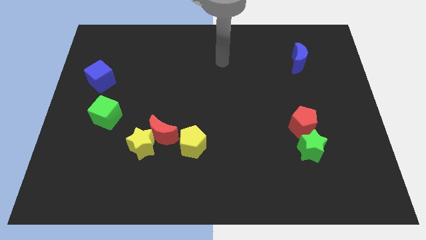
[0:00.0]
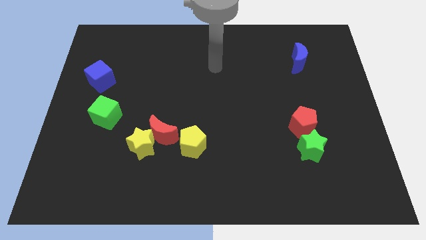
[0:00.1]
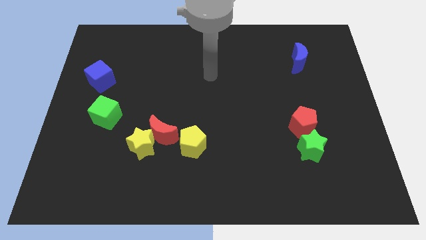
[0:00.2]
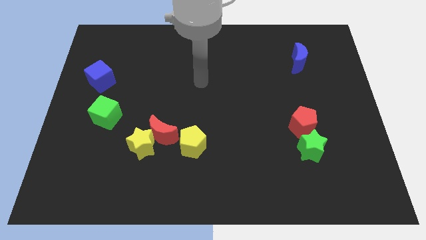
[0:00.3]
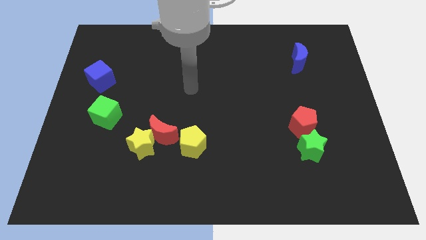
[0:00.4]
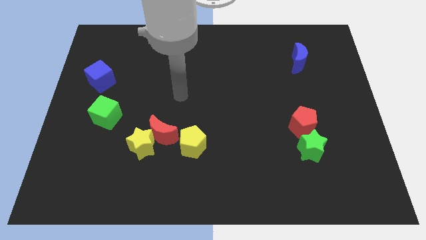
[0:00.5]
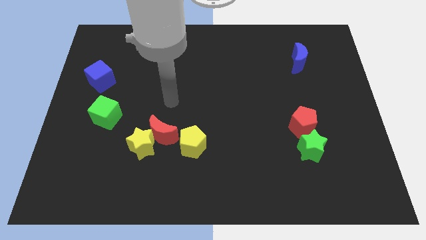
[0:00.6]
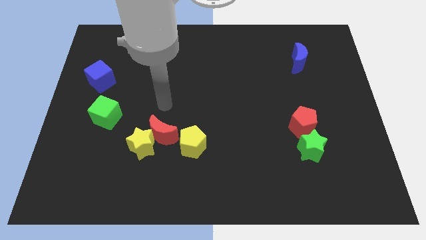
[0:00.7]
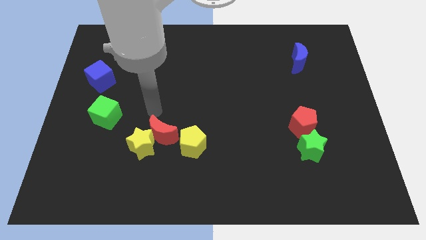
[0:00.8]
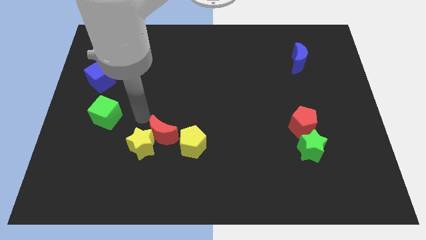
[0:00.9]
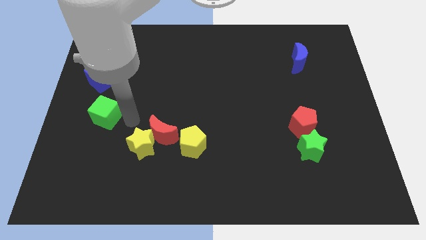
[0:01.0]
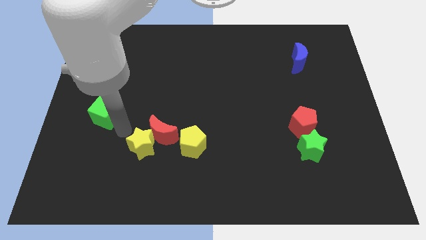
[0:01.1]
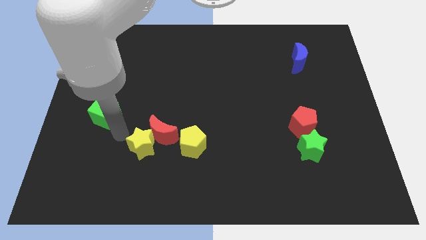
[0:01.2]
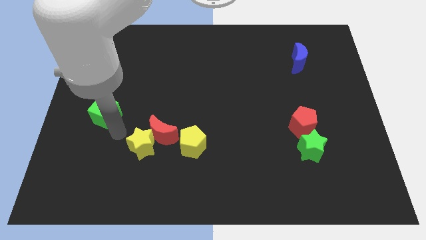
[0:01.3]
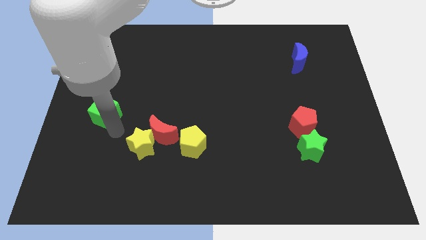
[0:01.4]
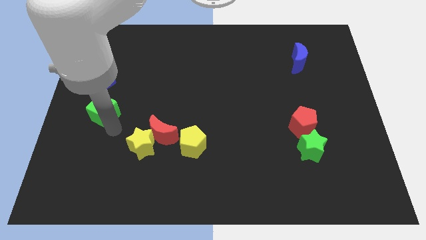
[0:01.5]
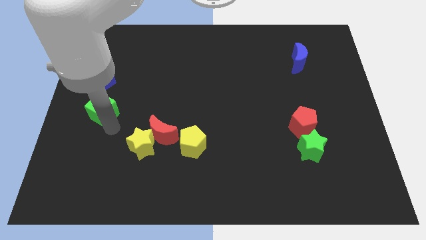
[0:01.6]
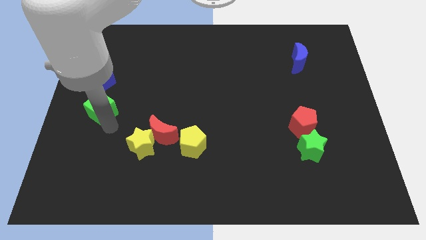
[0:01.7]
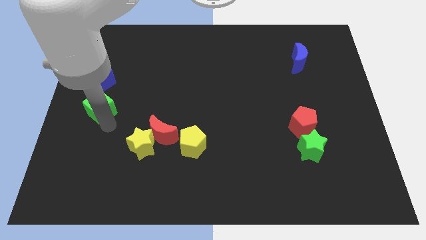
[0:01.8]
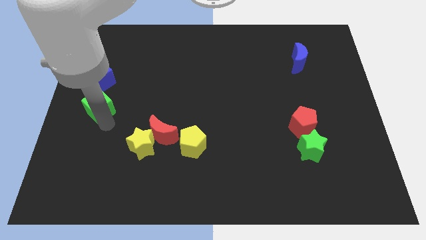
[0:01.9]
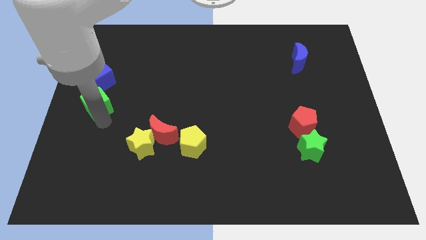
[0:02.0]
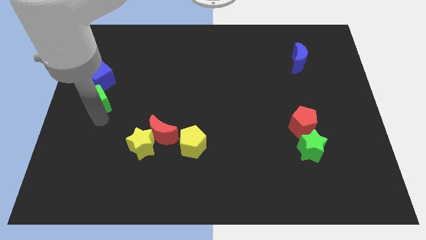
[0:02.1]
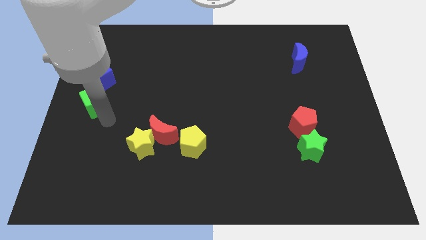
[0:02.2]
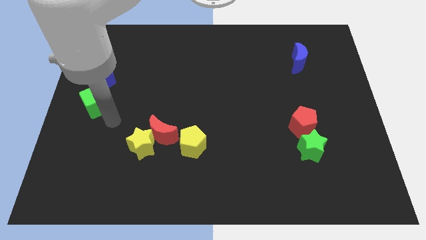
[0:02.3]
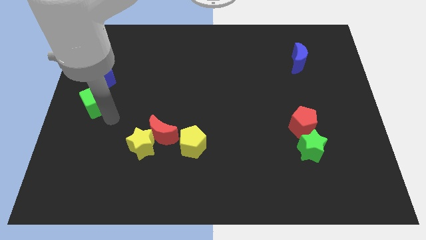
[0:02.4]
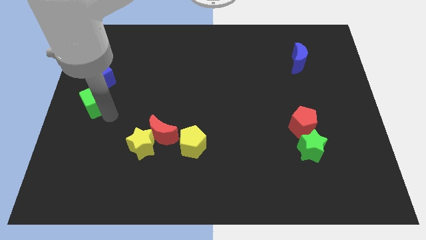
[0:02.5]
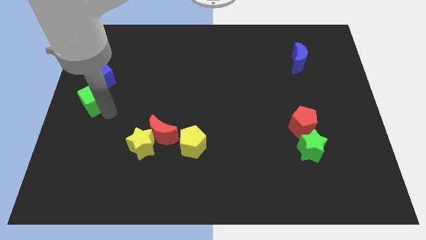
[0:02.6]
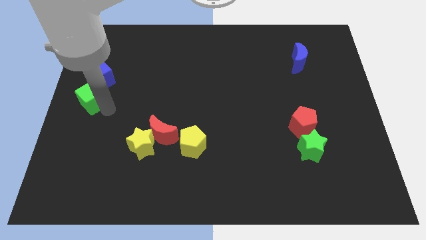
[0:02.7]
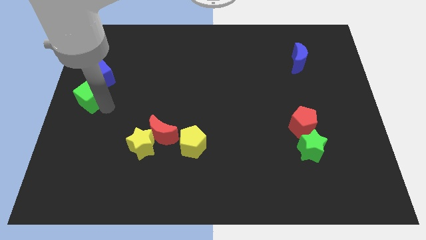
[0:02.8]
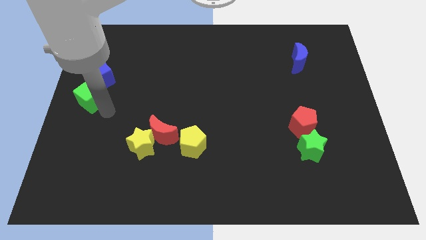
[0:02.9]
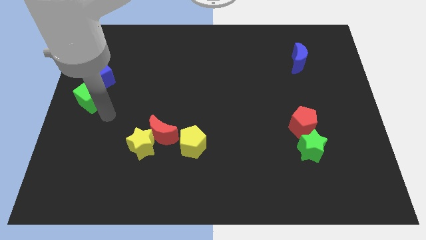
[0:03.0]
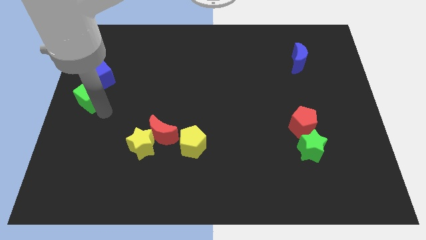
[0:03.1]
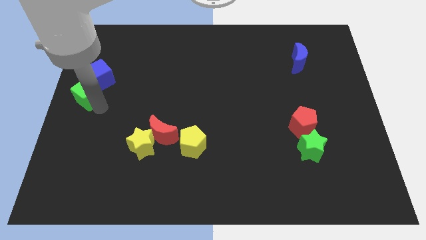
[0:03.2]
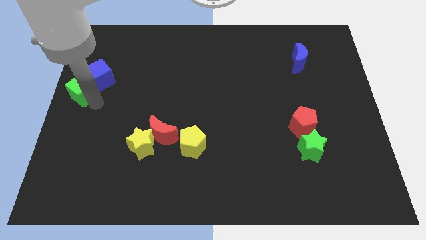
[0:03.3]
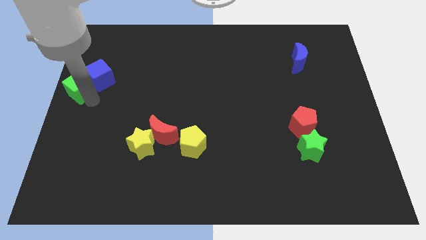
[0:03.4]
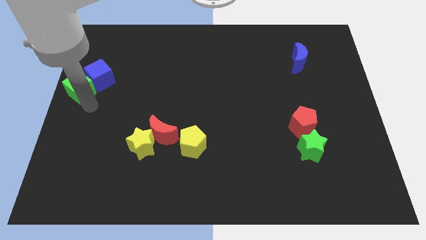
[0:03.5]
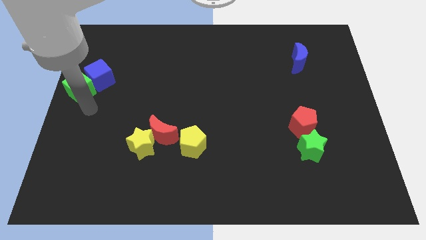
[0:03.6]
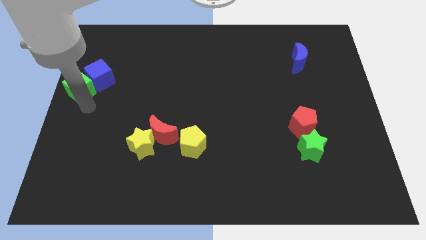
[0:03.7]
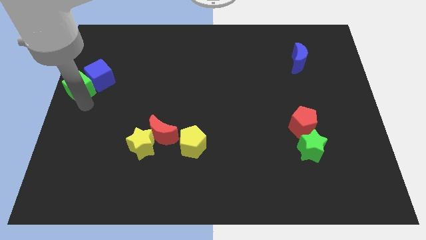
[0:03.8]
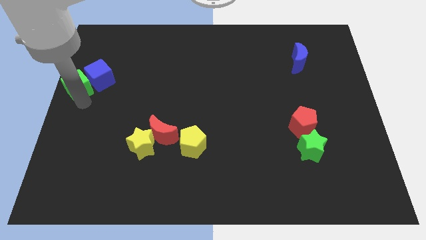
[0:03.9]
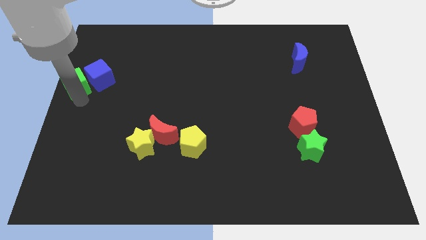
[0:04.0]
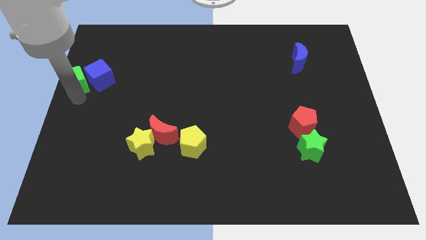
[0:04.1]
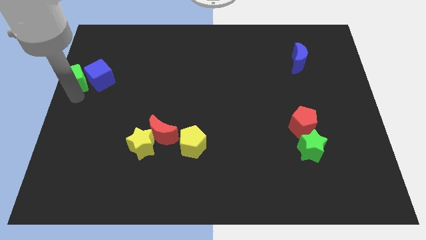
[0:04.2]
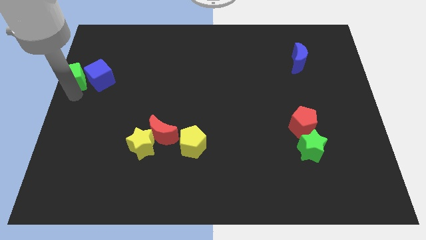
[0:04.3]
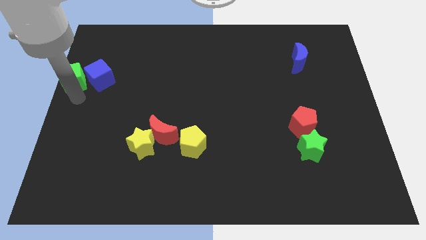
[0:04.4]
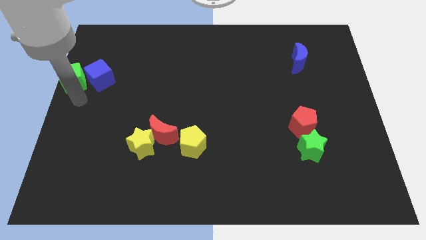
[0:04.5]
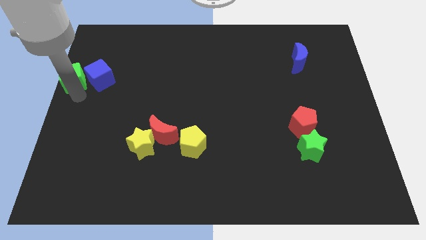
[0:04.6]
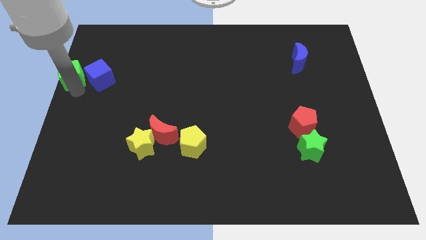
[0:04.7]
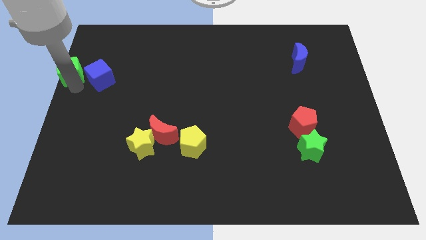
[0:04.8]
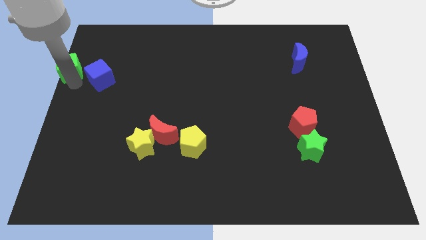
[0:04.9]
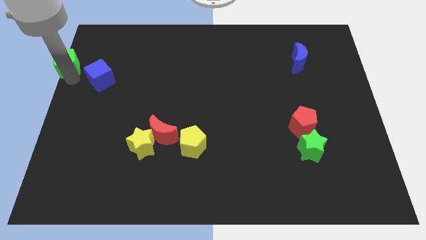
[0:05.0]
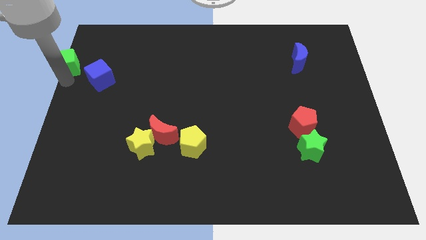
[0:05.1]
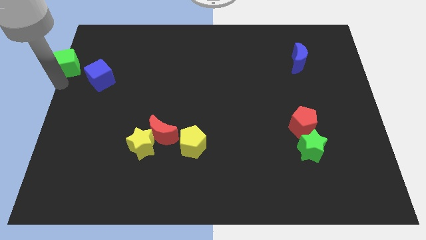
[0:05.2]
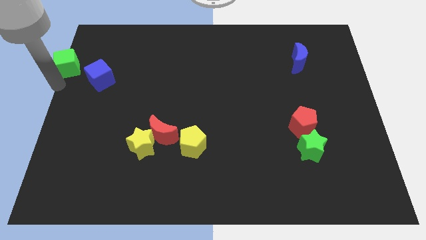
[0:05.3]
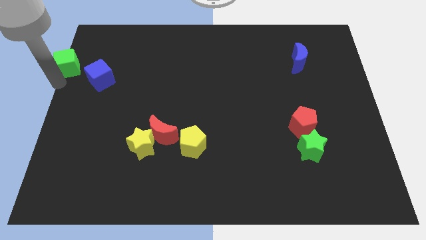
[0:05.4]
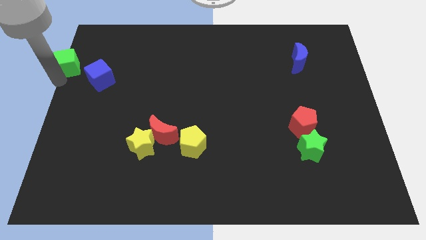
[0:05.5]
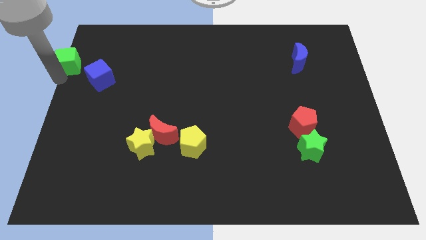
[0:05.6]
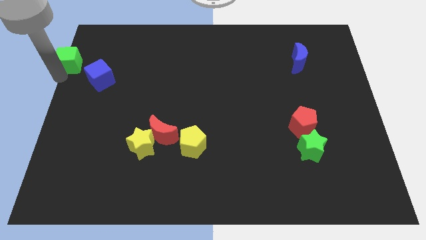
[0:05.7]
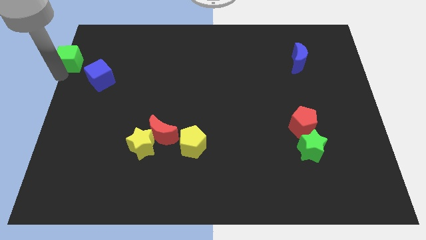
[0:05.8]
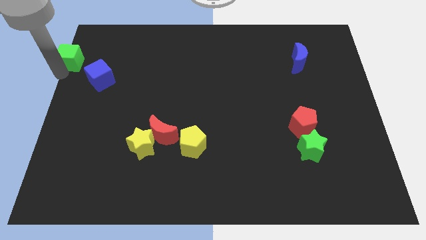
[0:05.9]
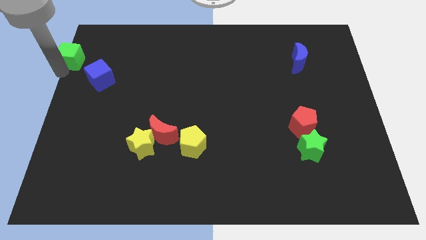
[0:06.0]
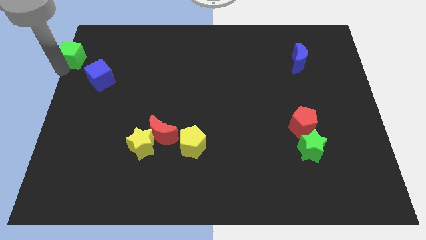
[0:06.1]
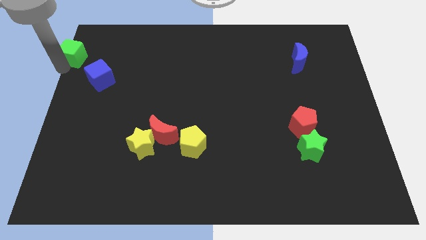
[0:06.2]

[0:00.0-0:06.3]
slide the green cube to the top left

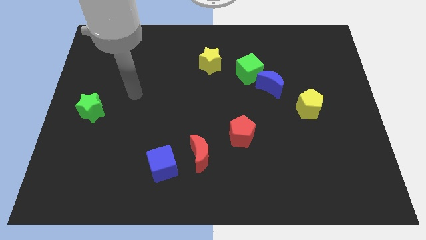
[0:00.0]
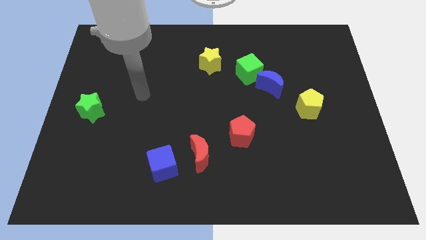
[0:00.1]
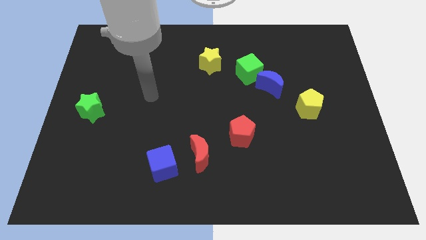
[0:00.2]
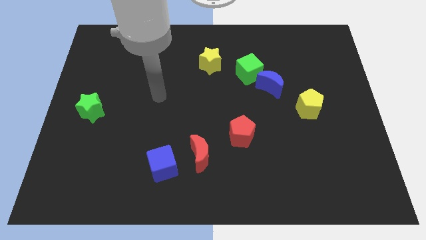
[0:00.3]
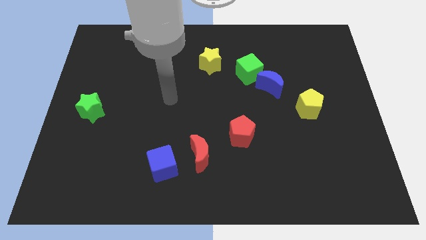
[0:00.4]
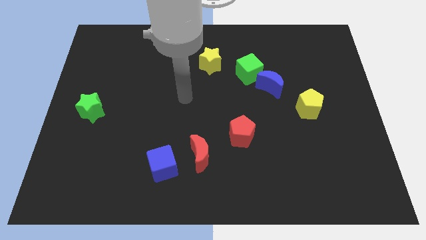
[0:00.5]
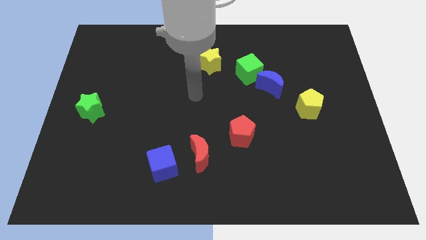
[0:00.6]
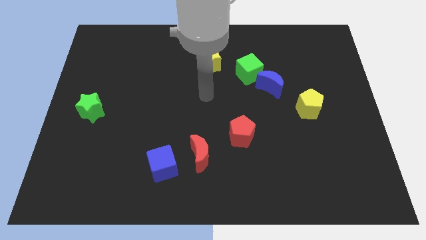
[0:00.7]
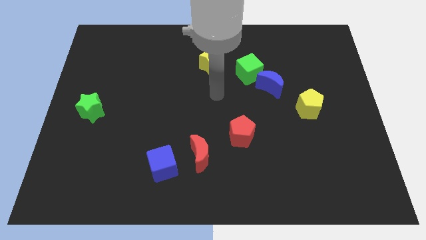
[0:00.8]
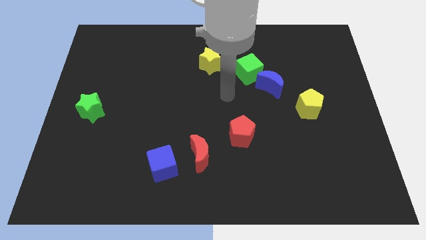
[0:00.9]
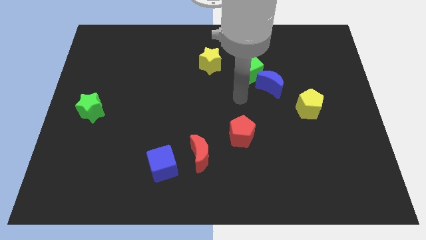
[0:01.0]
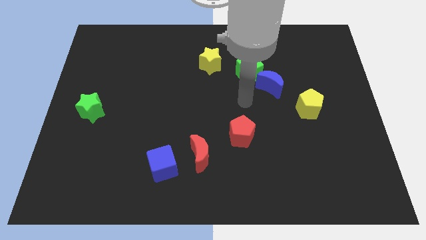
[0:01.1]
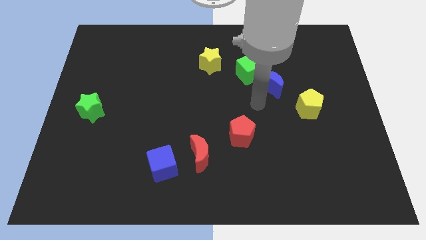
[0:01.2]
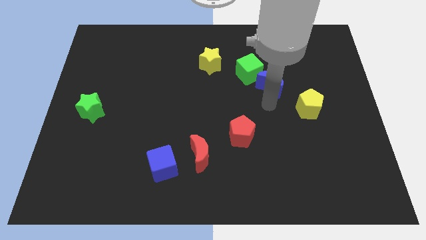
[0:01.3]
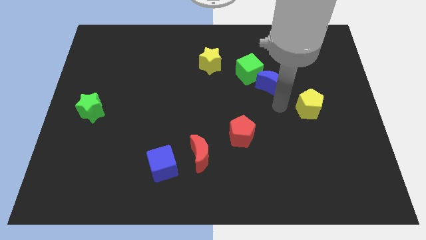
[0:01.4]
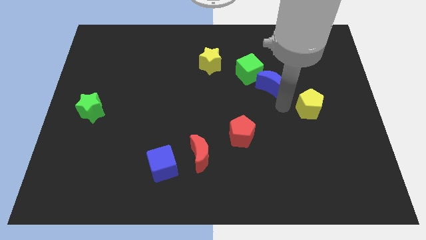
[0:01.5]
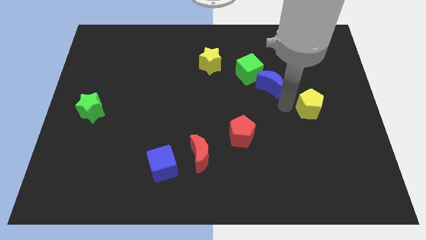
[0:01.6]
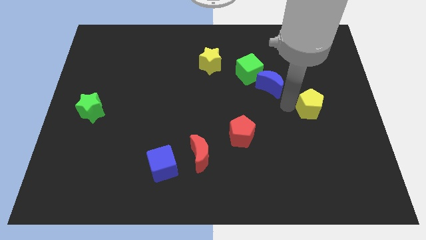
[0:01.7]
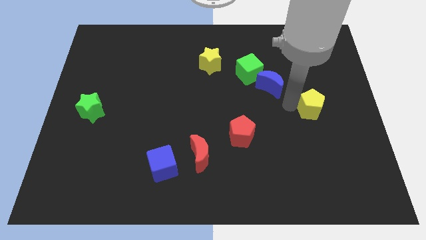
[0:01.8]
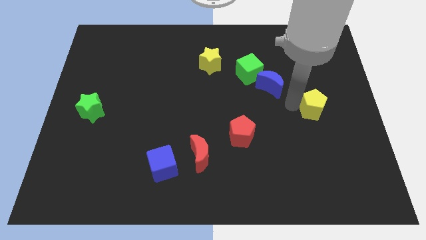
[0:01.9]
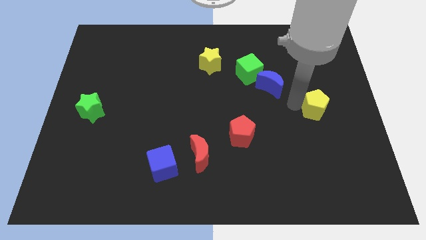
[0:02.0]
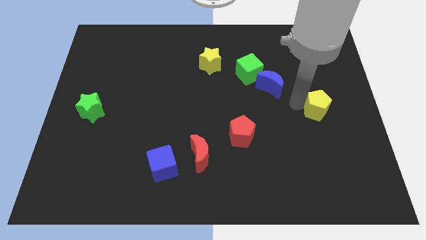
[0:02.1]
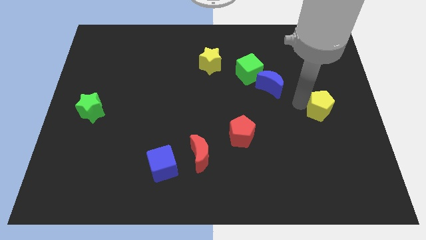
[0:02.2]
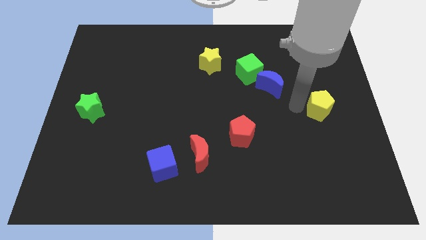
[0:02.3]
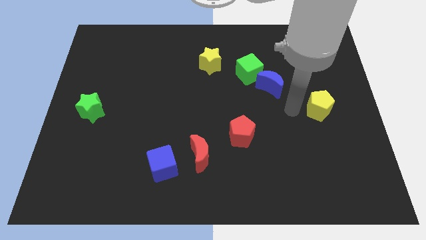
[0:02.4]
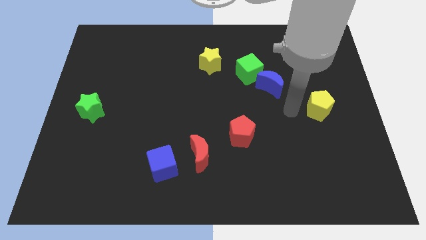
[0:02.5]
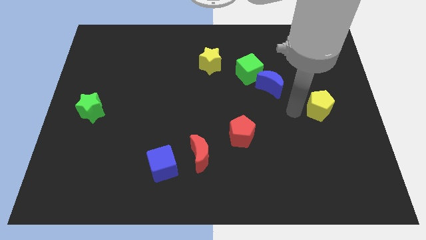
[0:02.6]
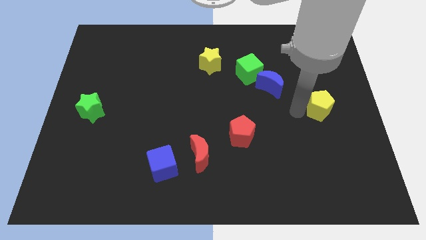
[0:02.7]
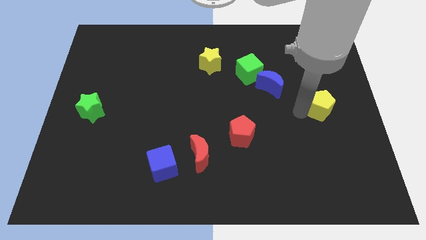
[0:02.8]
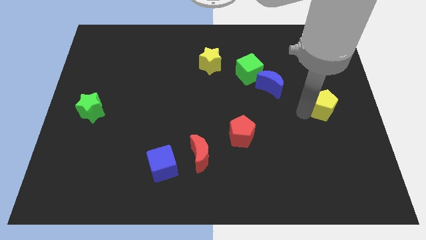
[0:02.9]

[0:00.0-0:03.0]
slide the yellow pentagon to the center right
